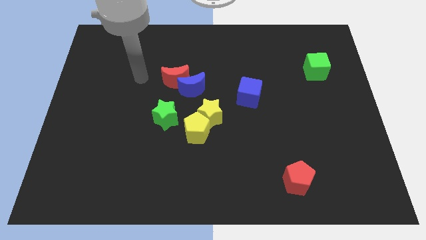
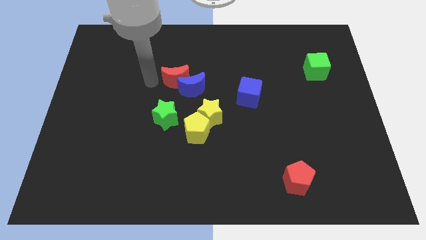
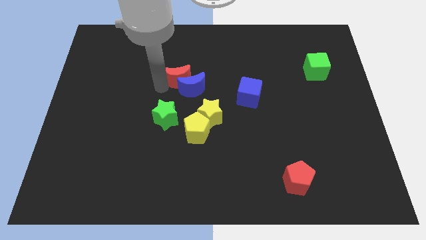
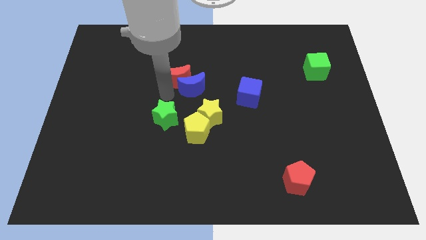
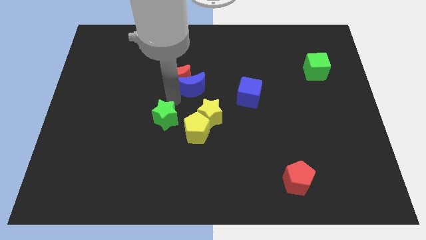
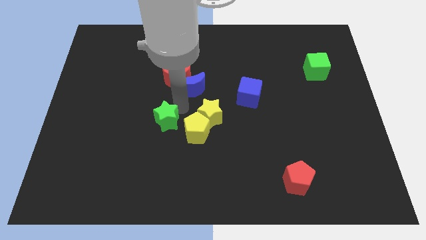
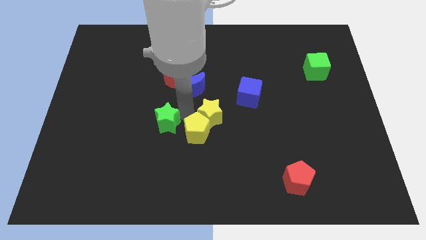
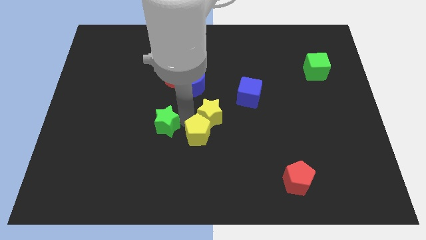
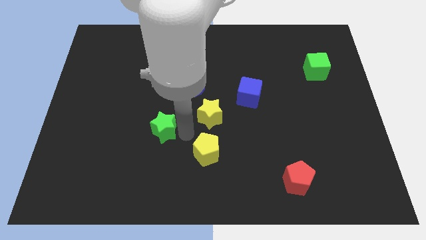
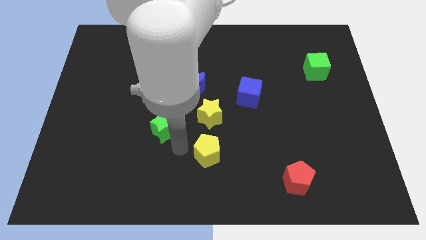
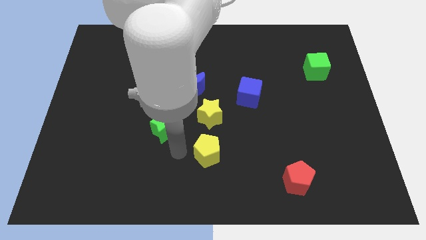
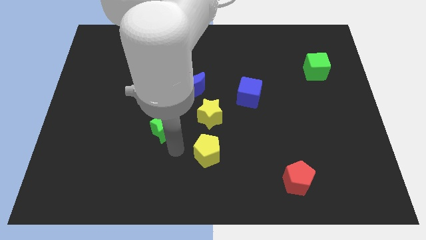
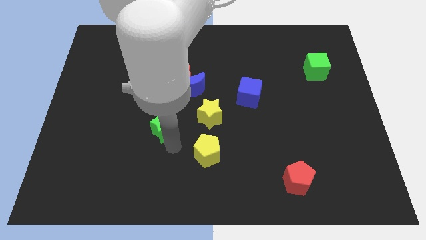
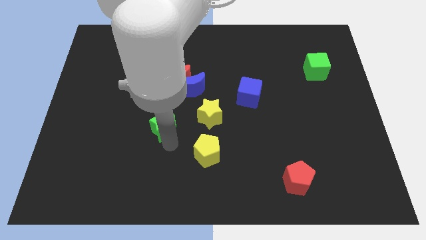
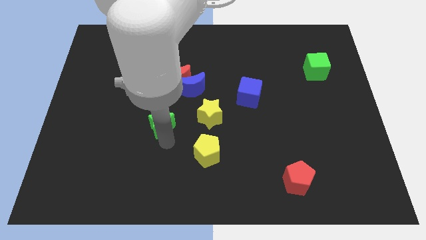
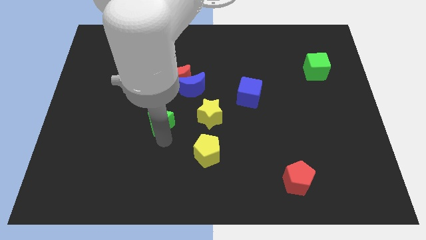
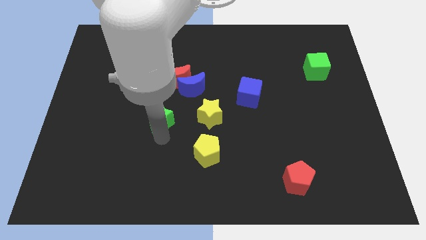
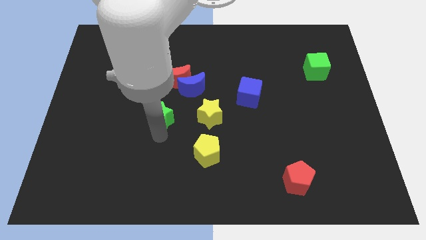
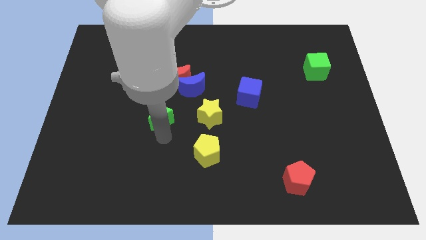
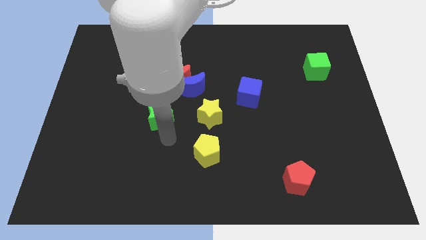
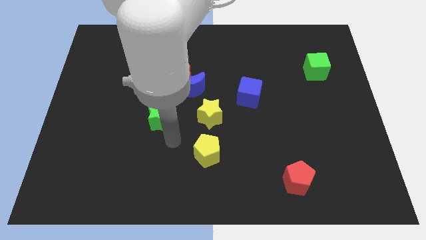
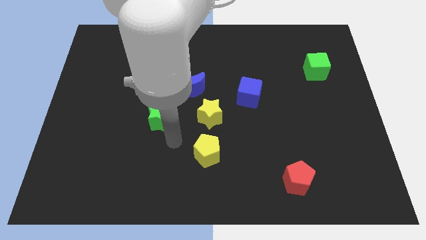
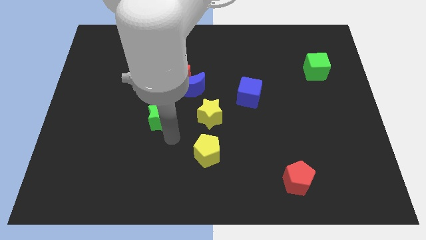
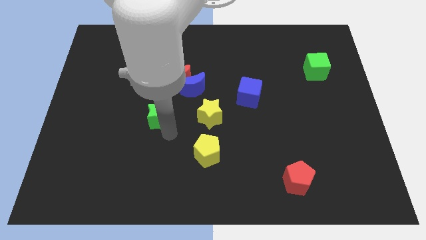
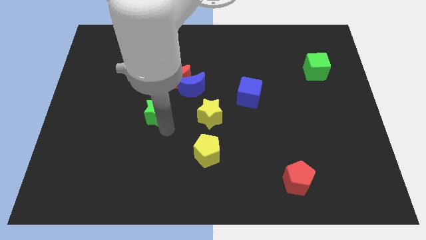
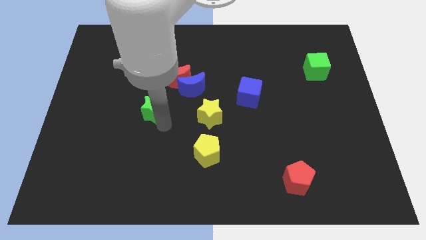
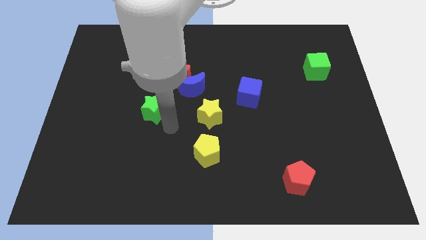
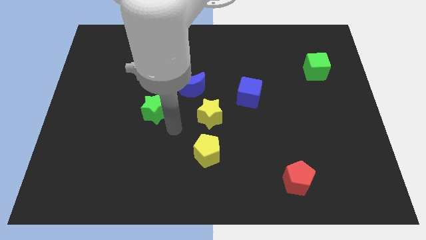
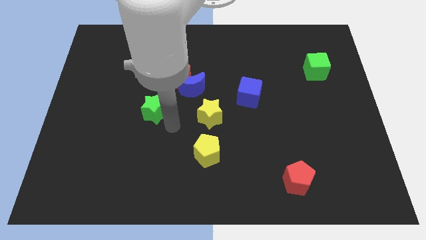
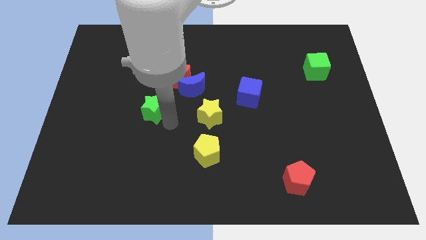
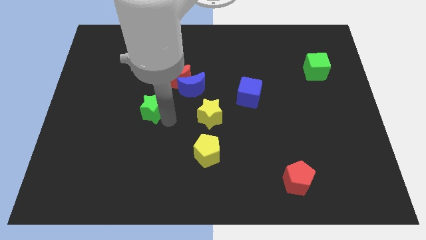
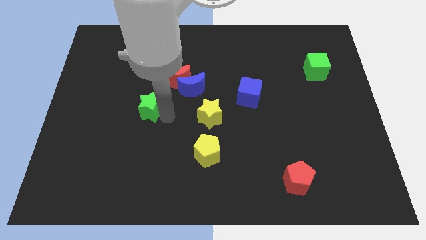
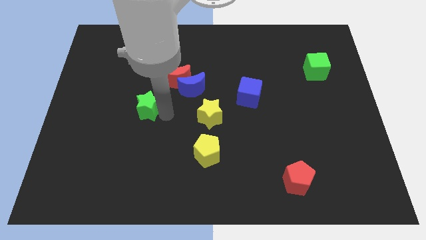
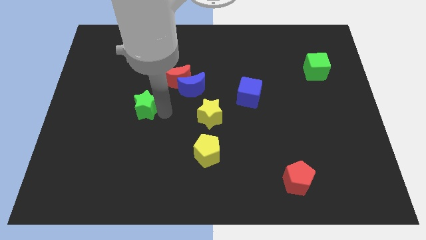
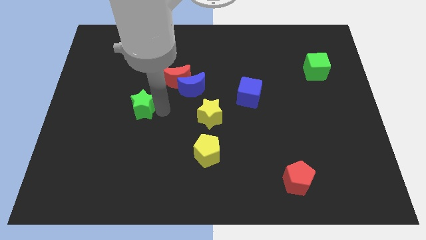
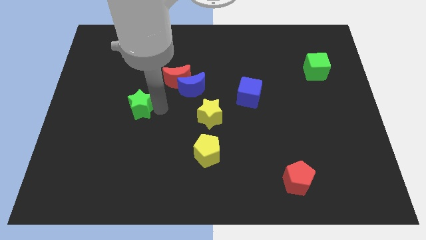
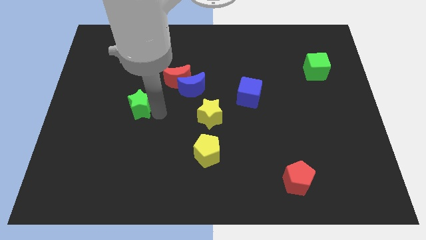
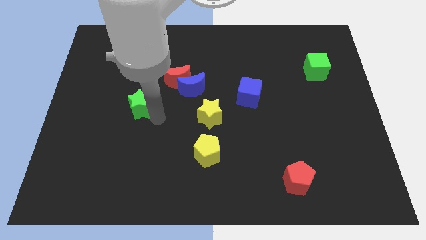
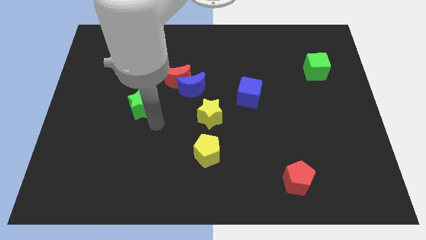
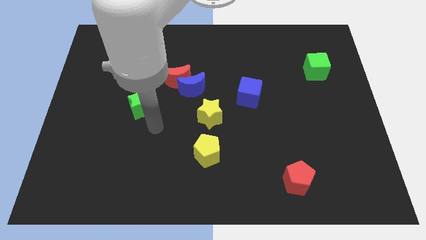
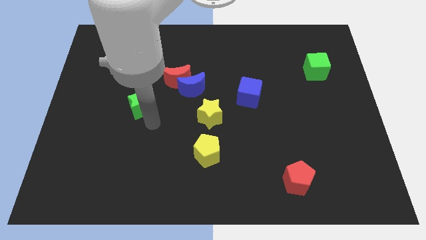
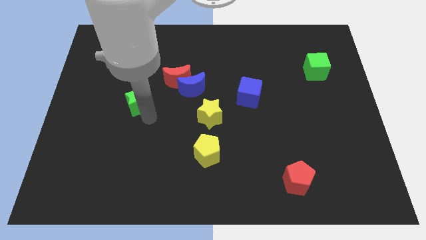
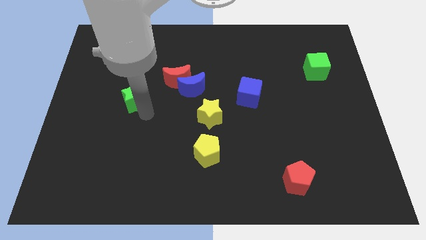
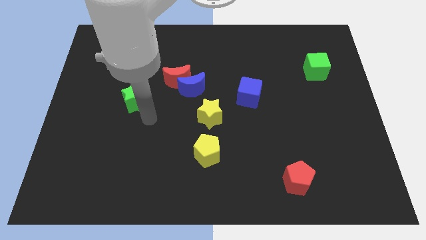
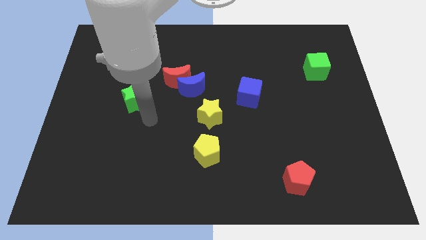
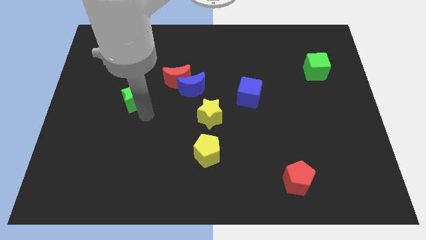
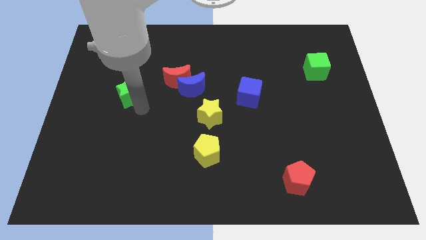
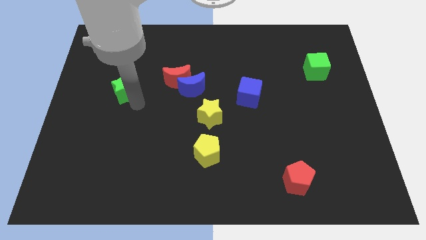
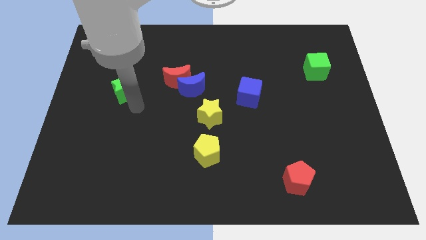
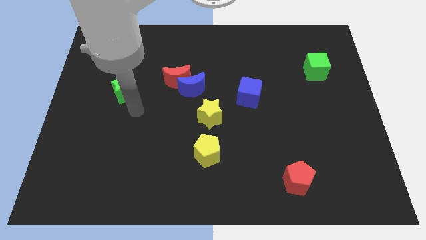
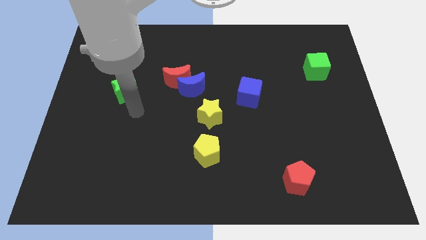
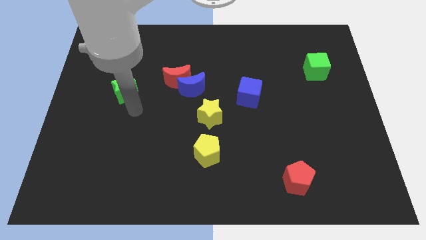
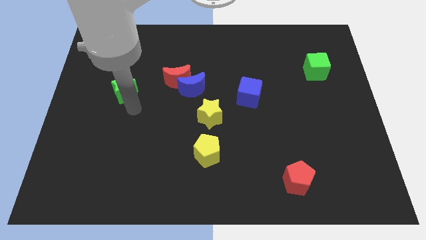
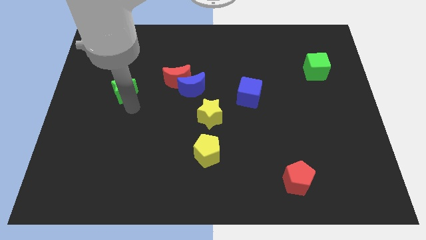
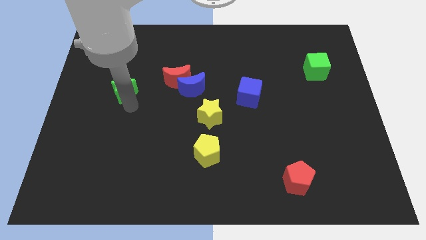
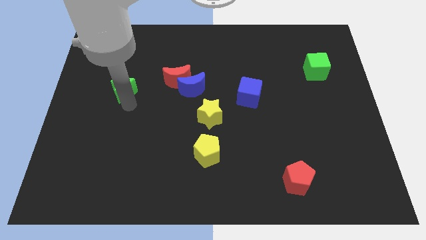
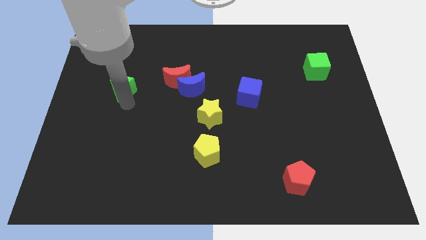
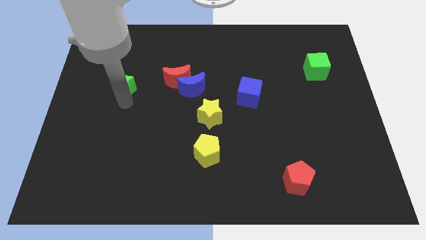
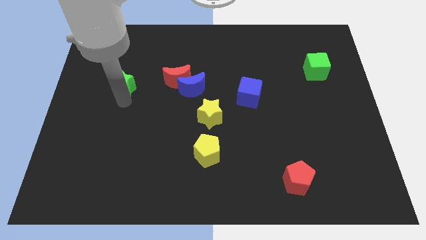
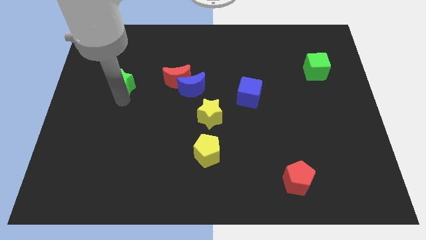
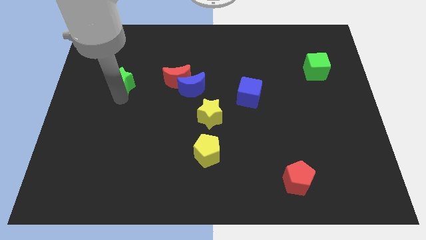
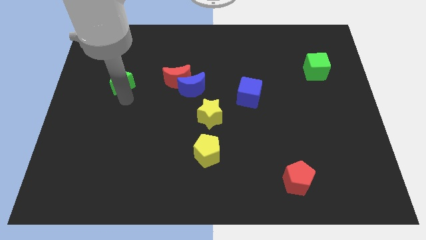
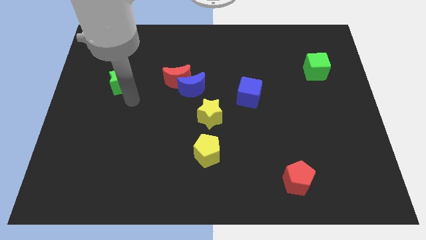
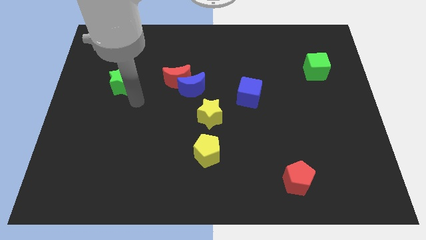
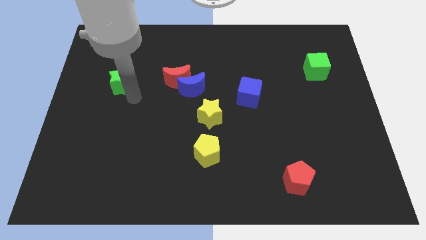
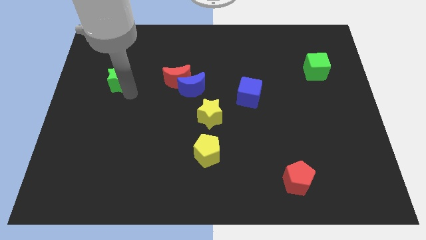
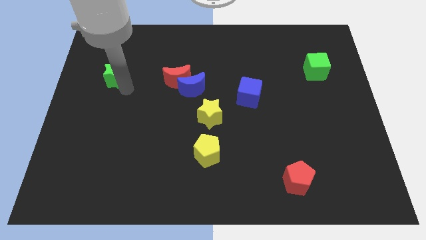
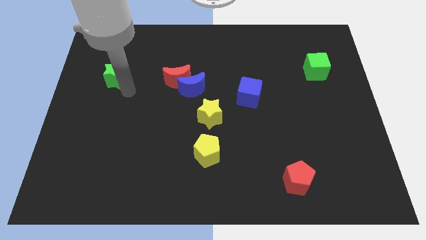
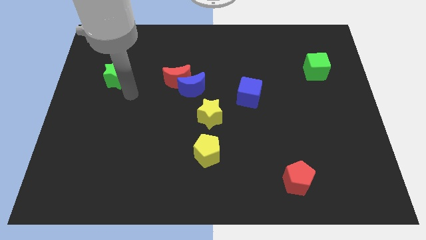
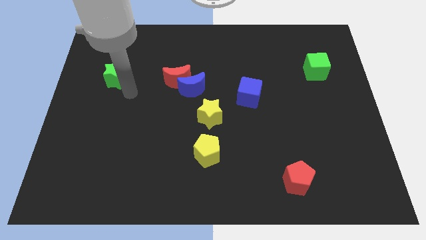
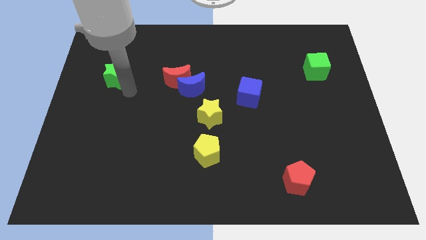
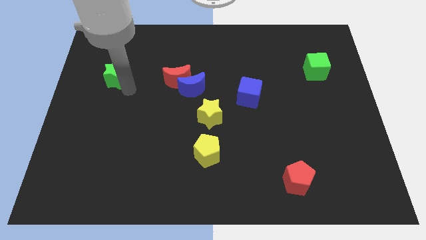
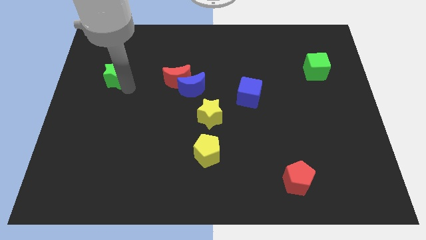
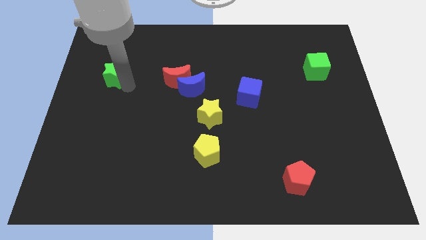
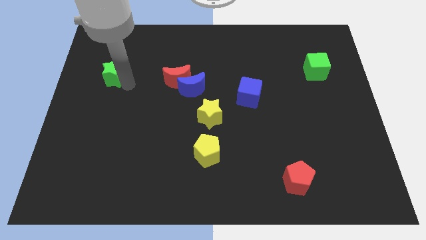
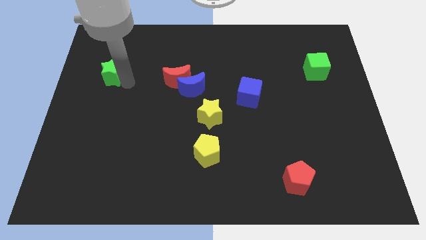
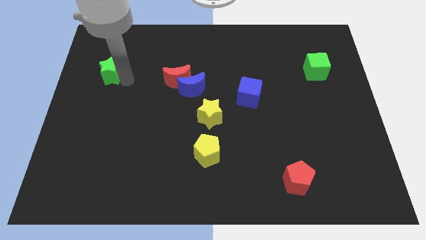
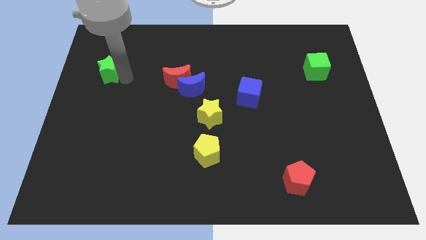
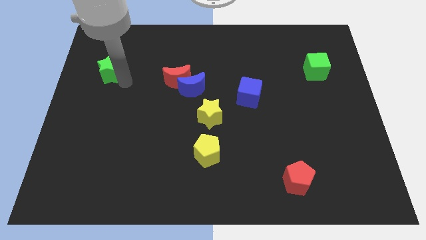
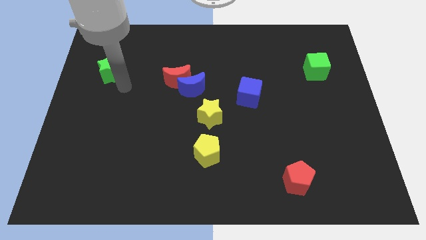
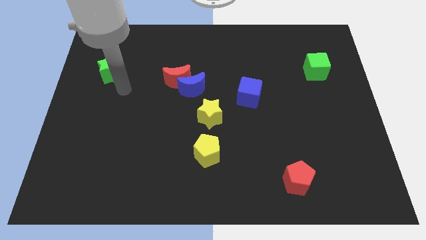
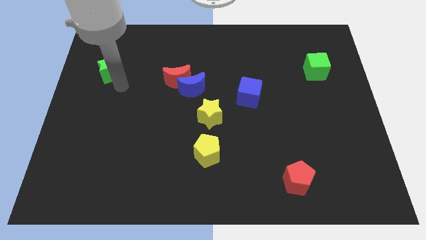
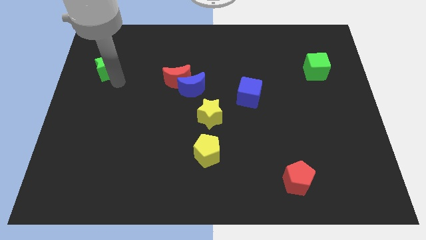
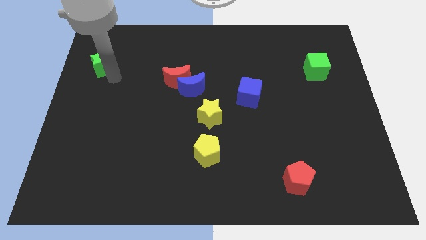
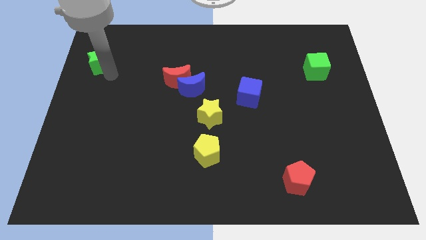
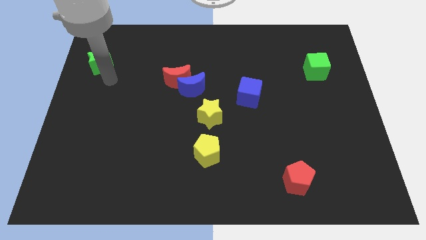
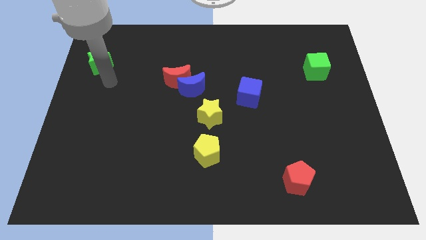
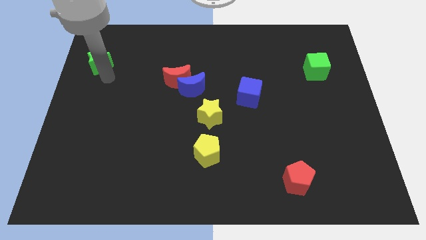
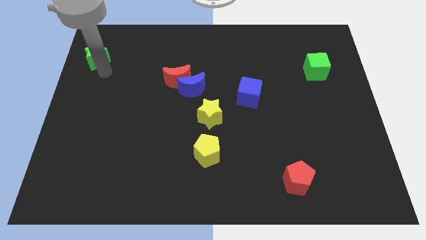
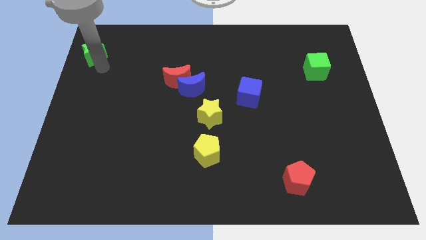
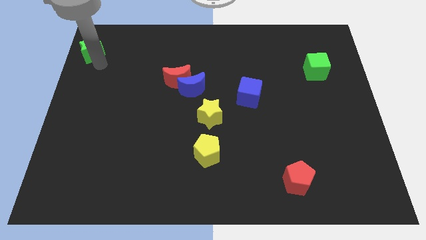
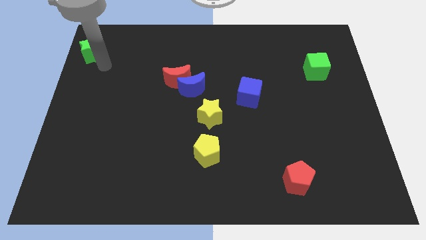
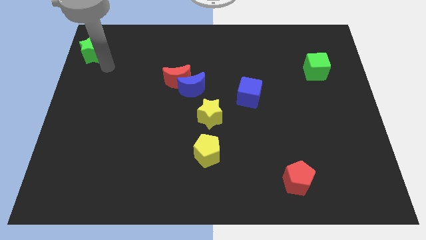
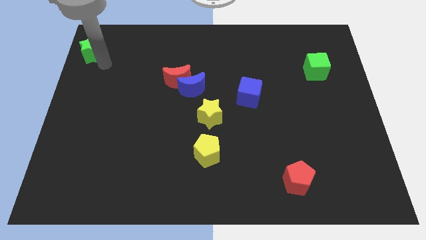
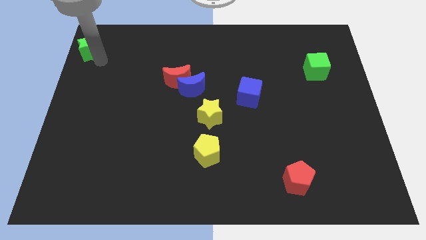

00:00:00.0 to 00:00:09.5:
move the green star to the top left corner
